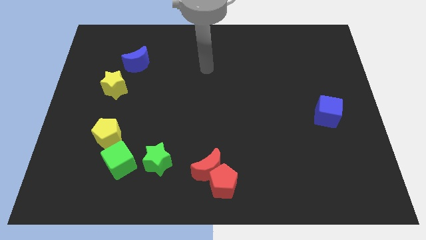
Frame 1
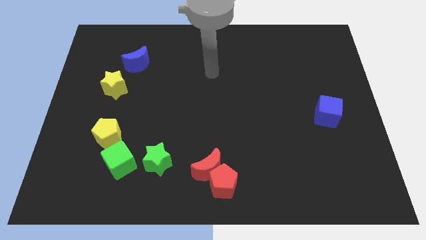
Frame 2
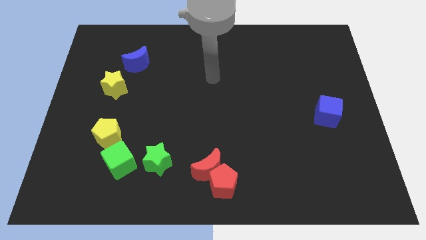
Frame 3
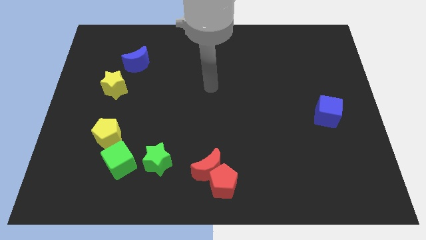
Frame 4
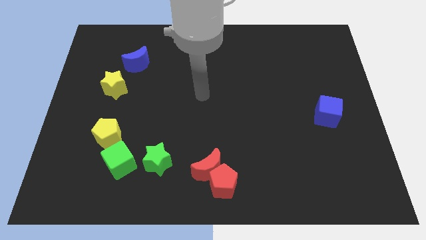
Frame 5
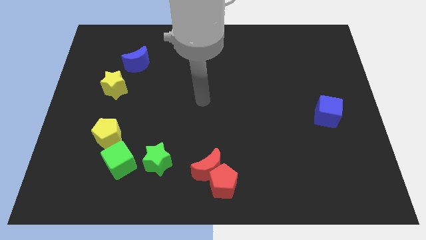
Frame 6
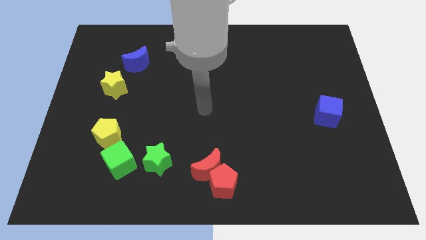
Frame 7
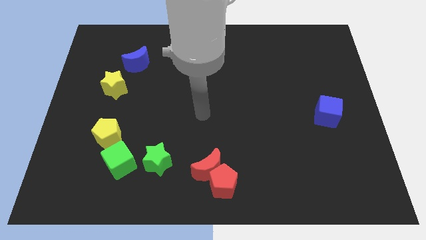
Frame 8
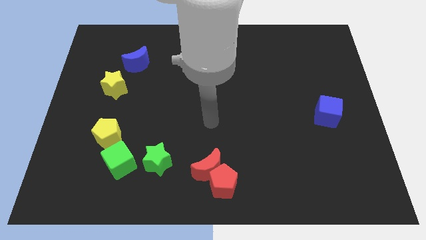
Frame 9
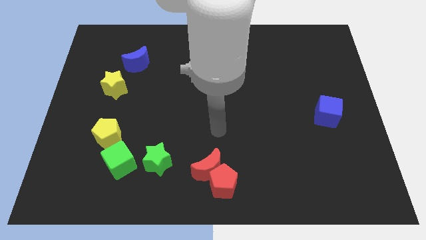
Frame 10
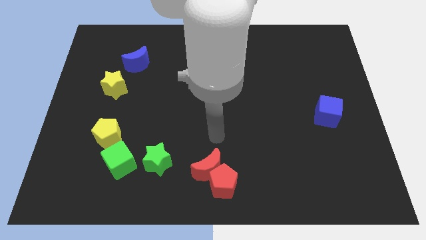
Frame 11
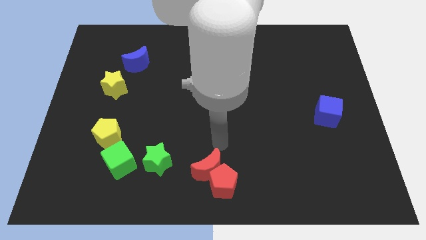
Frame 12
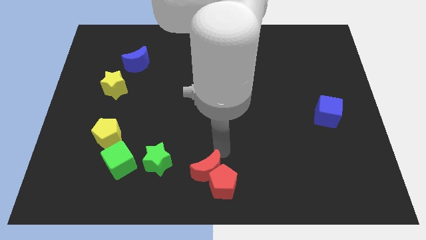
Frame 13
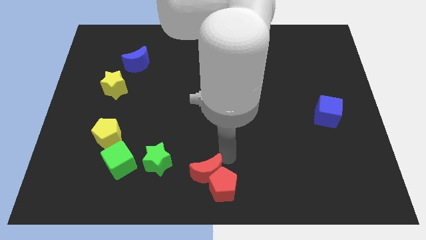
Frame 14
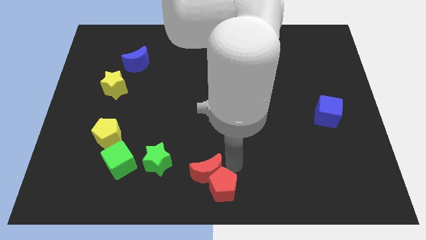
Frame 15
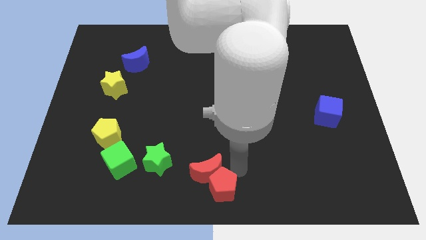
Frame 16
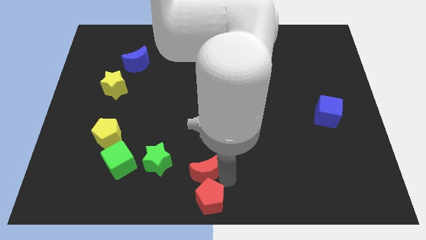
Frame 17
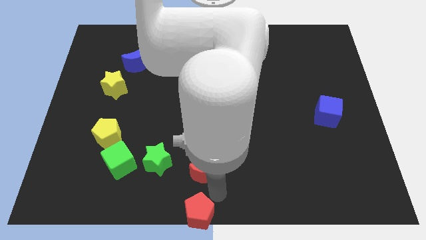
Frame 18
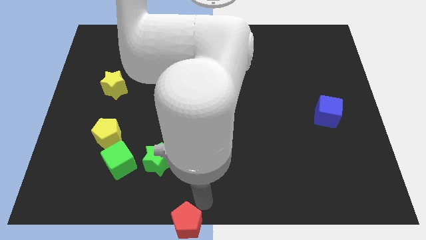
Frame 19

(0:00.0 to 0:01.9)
move the red moon away from the red pentagon

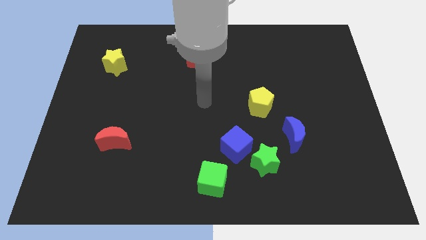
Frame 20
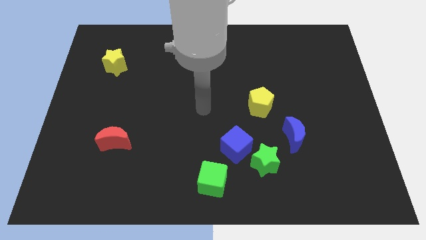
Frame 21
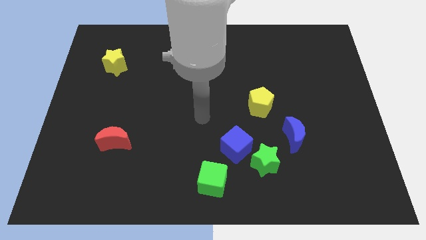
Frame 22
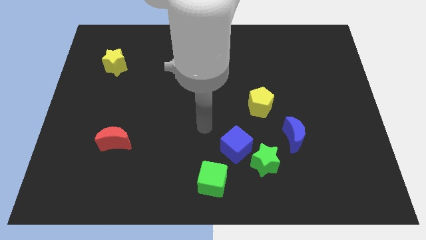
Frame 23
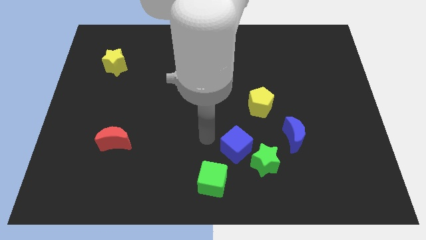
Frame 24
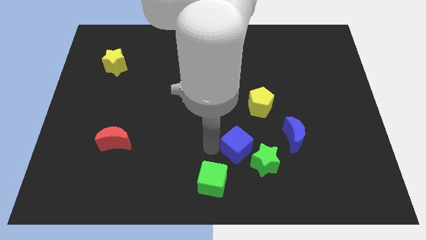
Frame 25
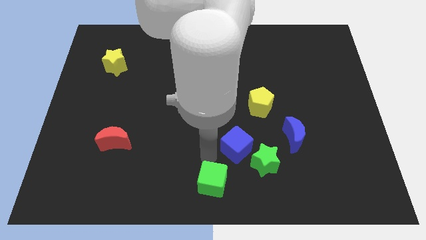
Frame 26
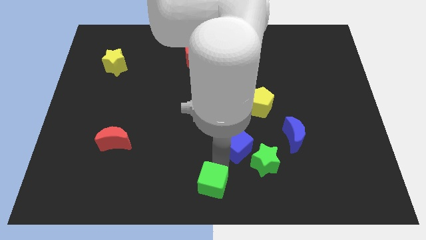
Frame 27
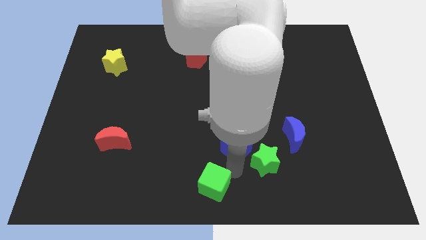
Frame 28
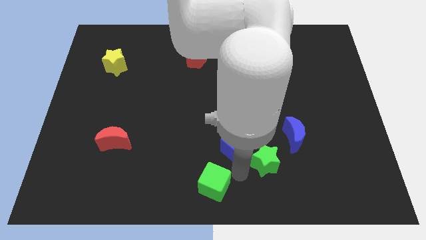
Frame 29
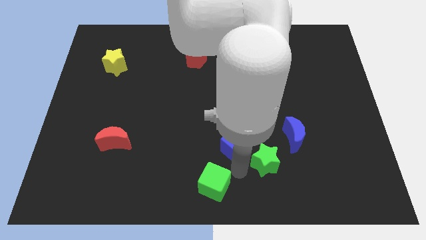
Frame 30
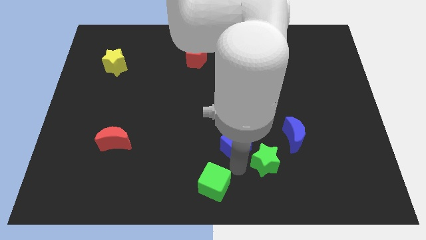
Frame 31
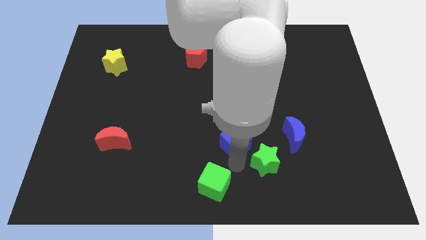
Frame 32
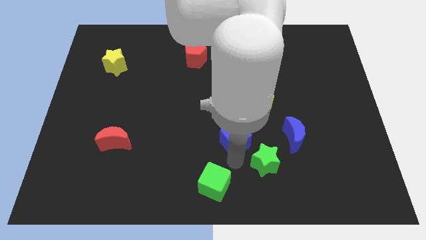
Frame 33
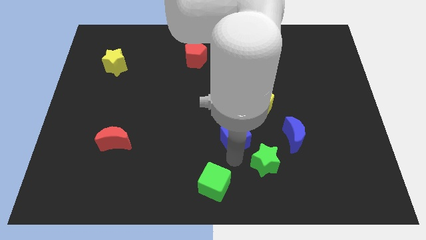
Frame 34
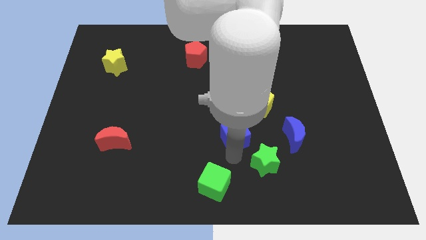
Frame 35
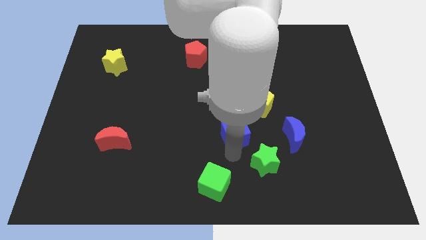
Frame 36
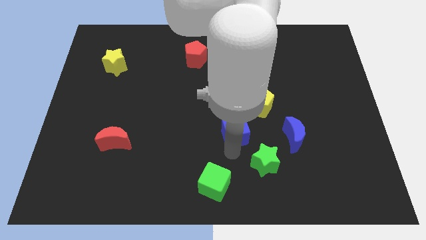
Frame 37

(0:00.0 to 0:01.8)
move the blue cube away from the green star and green cube

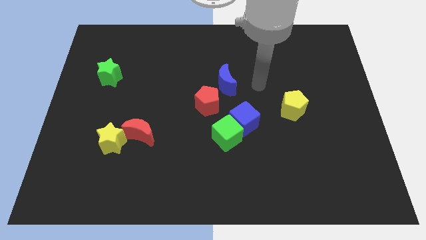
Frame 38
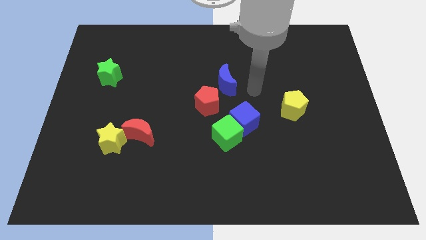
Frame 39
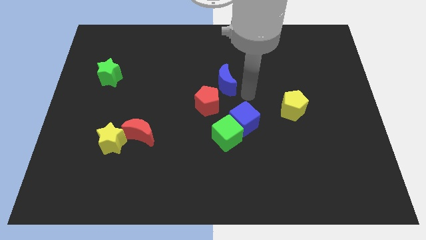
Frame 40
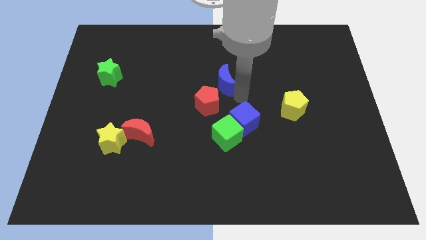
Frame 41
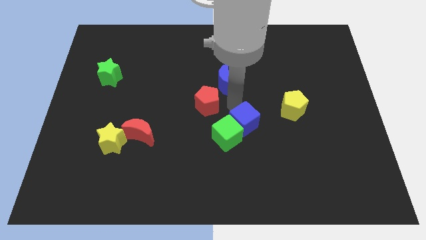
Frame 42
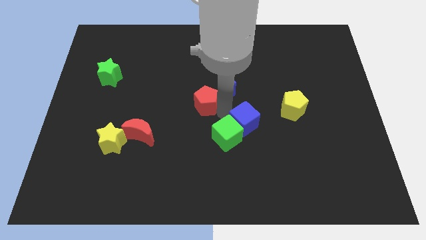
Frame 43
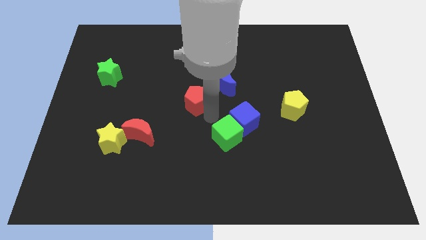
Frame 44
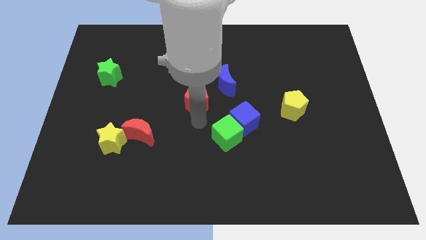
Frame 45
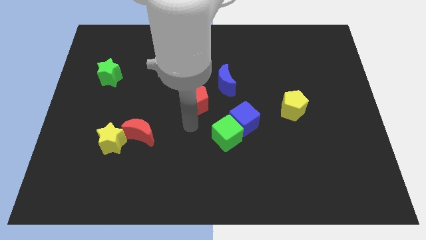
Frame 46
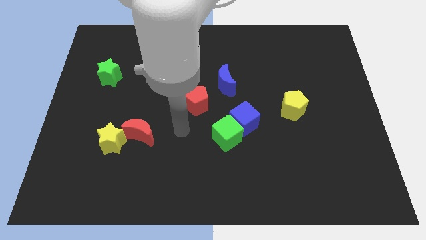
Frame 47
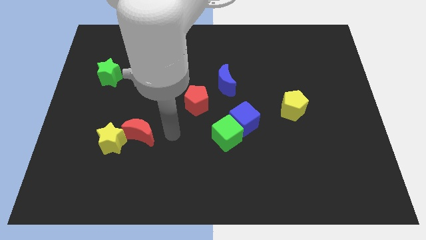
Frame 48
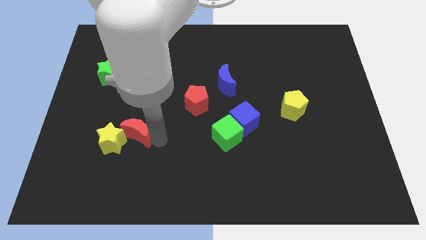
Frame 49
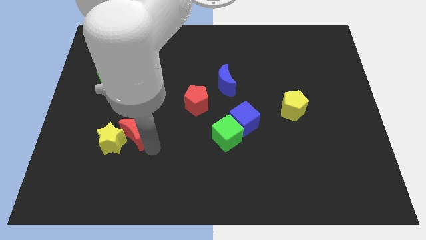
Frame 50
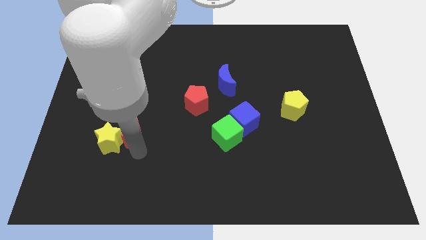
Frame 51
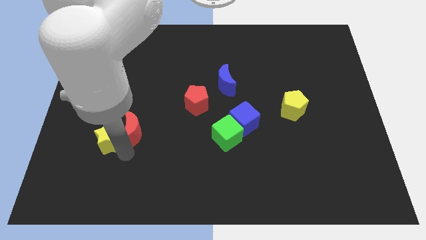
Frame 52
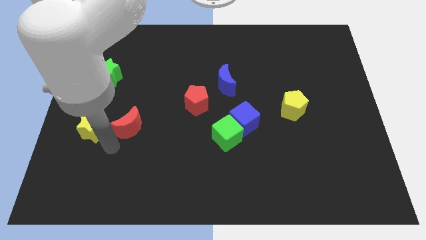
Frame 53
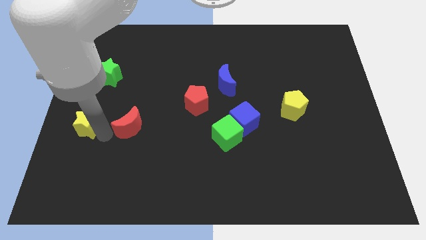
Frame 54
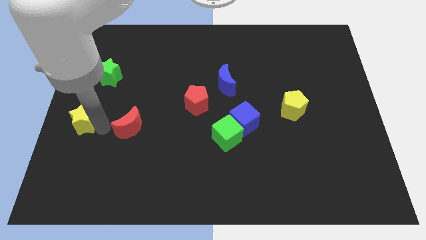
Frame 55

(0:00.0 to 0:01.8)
pull the red moon apart from the yellow star

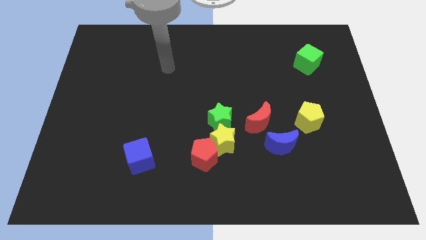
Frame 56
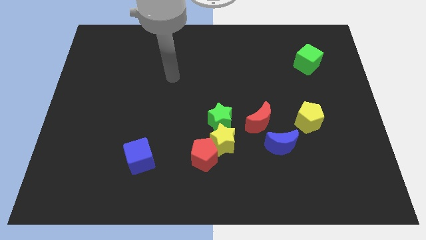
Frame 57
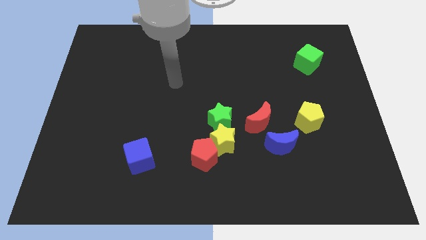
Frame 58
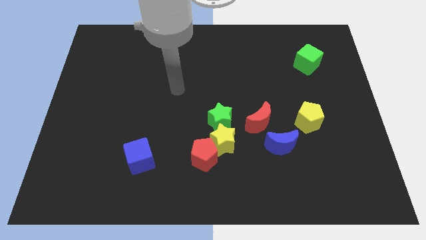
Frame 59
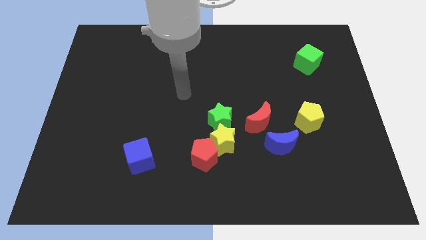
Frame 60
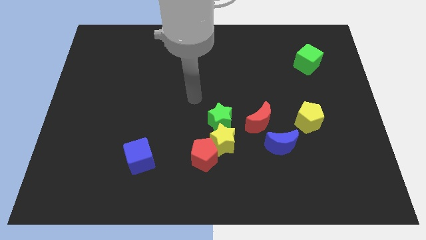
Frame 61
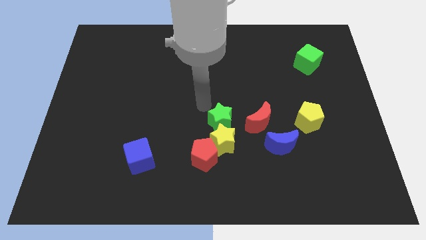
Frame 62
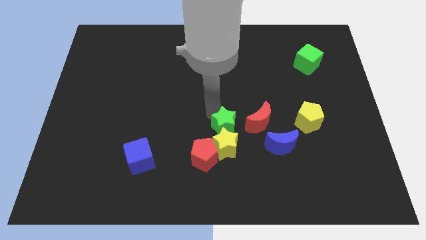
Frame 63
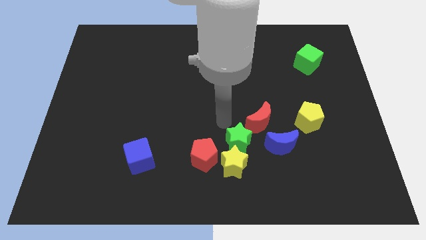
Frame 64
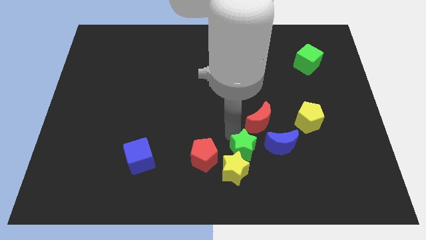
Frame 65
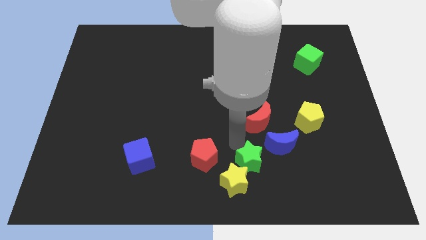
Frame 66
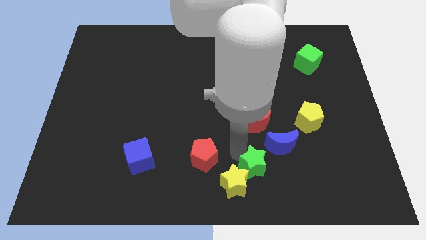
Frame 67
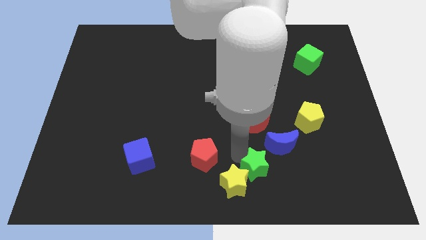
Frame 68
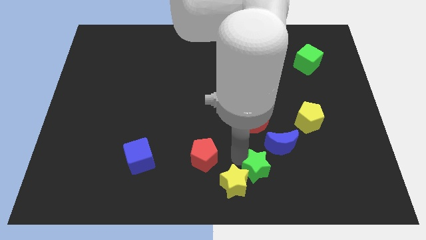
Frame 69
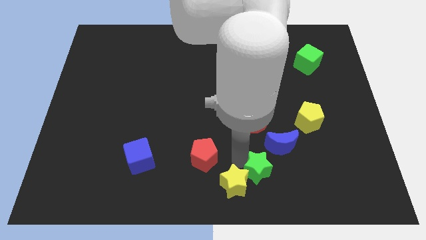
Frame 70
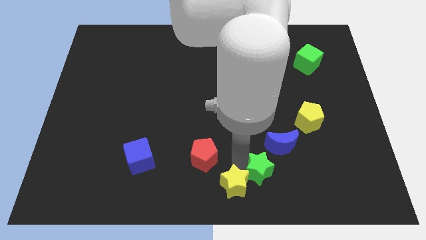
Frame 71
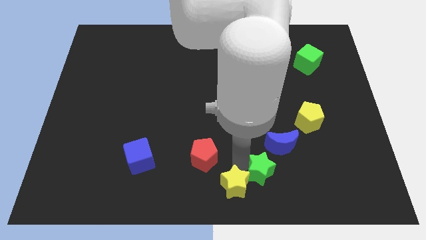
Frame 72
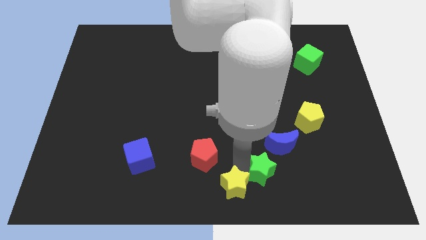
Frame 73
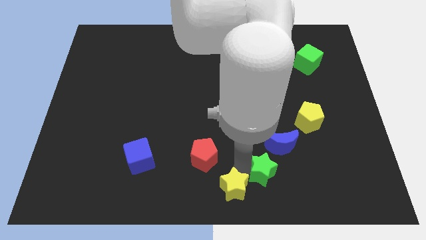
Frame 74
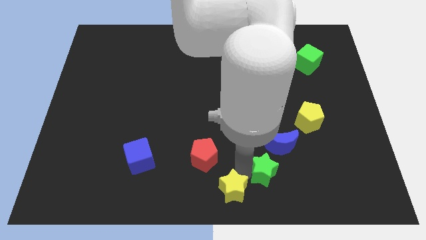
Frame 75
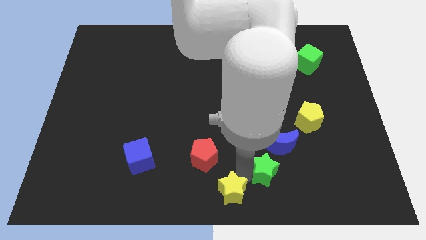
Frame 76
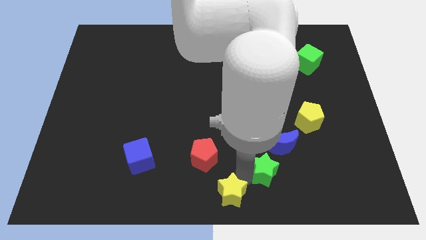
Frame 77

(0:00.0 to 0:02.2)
pull the yellow star apart from the group of blocks

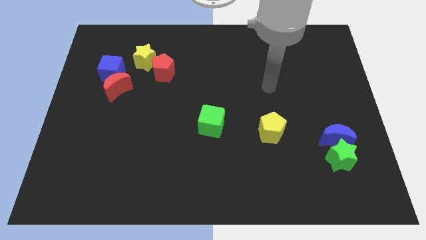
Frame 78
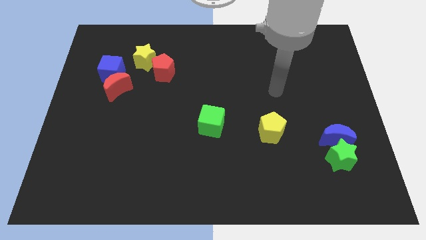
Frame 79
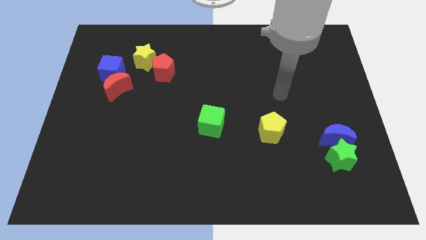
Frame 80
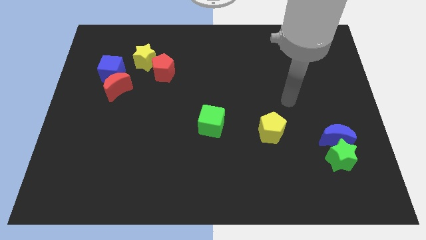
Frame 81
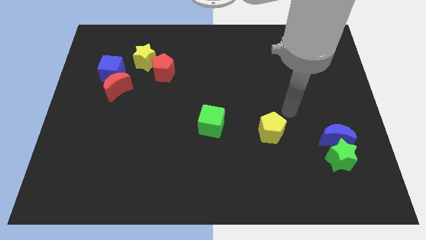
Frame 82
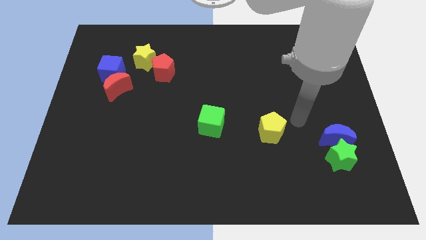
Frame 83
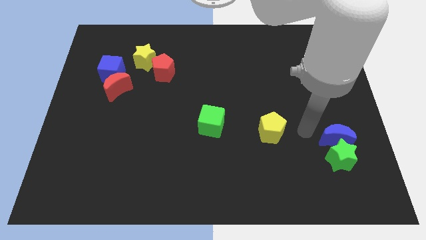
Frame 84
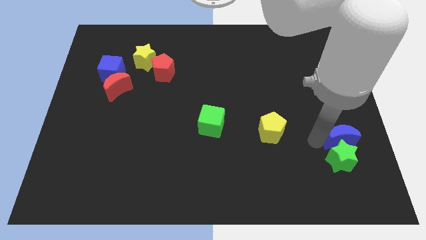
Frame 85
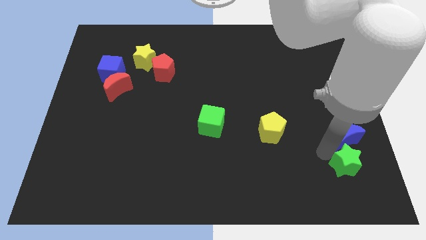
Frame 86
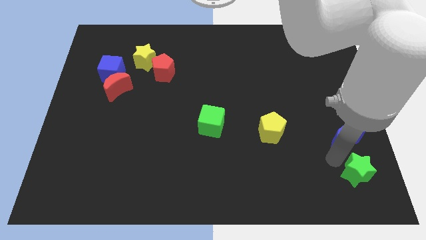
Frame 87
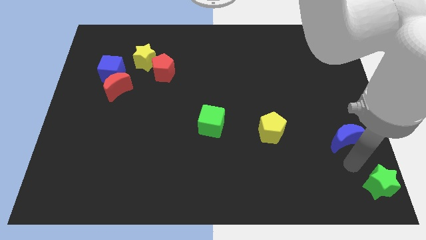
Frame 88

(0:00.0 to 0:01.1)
move the blue moon away from the green star

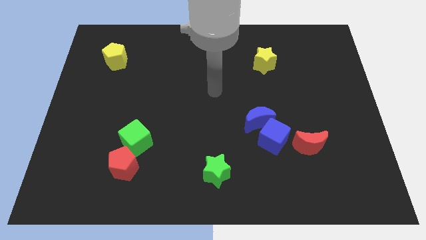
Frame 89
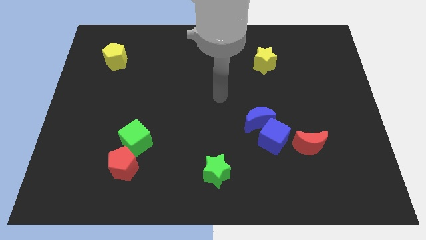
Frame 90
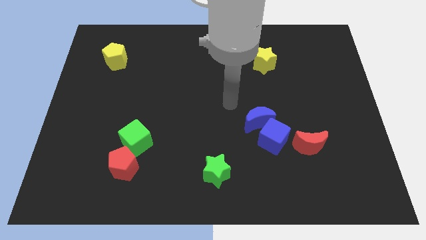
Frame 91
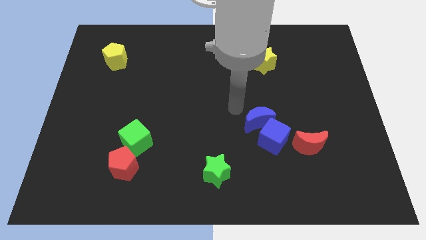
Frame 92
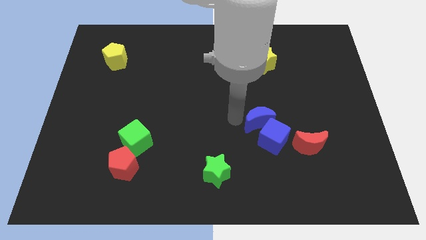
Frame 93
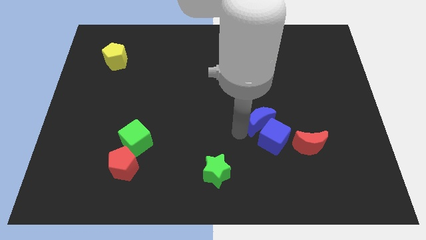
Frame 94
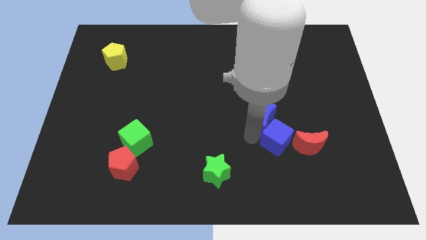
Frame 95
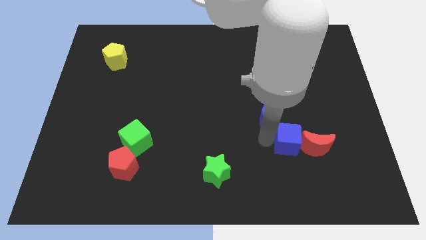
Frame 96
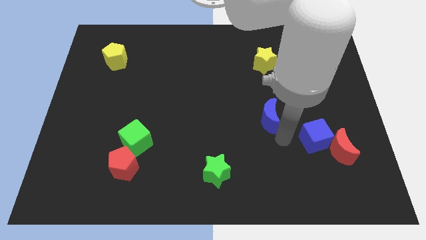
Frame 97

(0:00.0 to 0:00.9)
pull the blue moon apart from the blue cube
